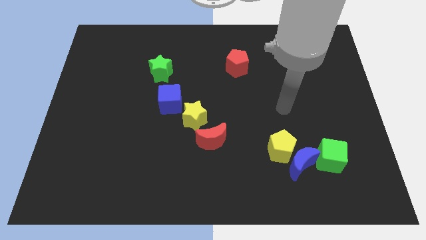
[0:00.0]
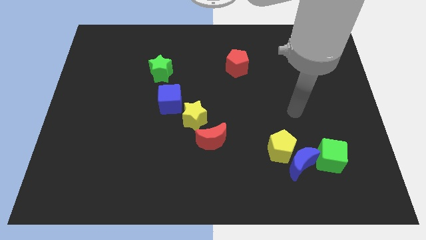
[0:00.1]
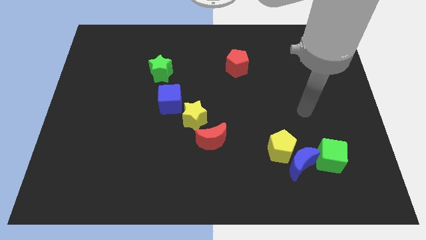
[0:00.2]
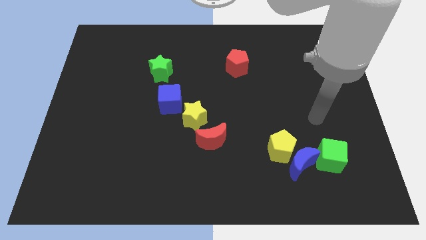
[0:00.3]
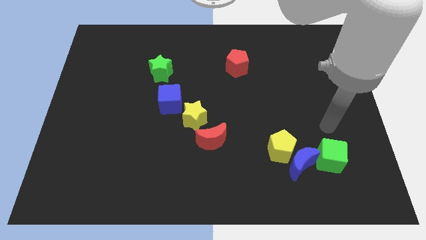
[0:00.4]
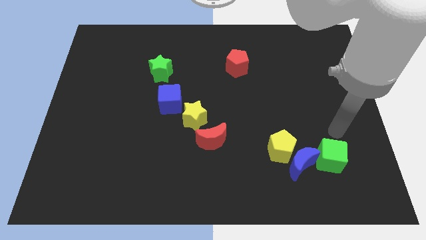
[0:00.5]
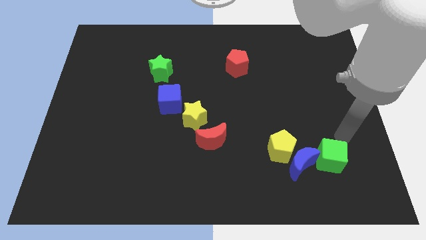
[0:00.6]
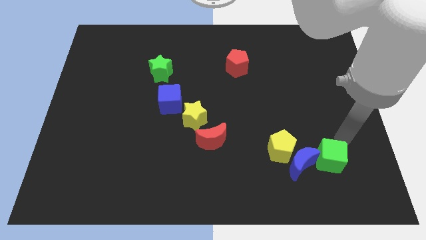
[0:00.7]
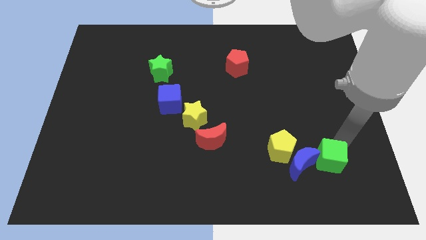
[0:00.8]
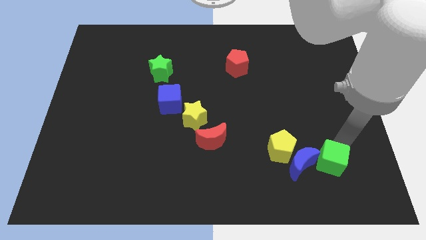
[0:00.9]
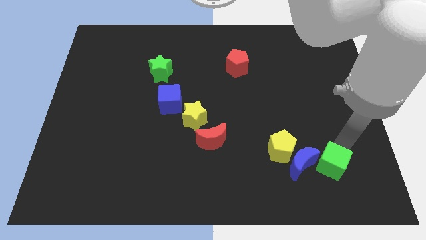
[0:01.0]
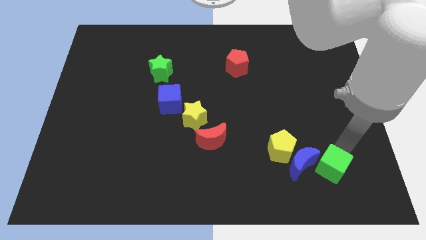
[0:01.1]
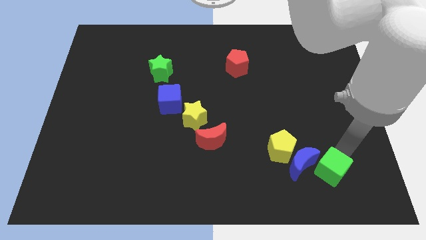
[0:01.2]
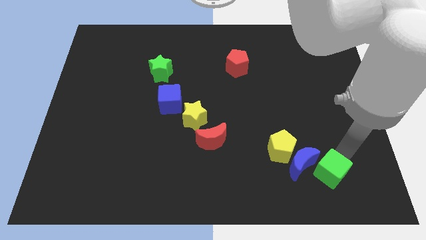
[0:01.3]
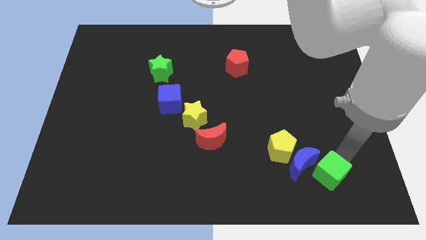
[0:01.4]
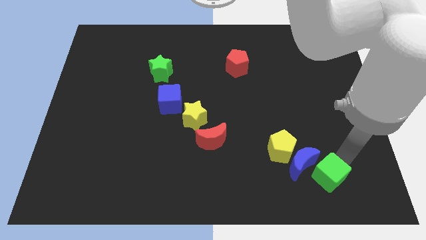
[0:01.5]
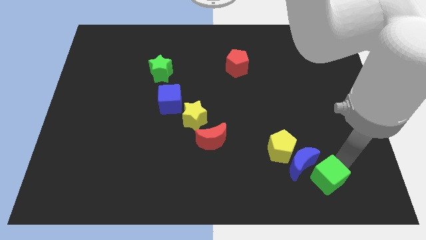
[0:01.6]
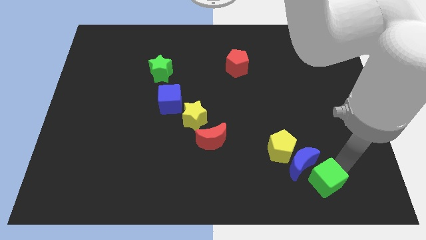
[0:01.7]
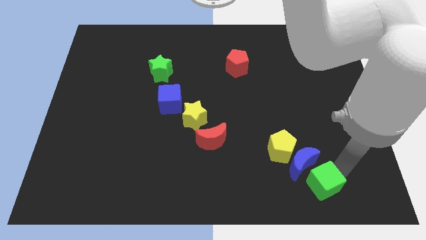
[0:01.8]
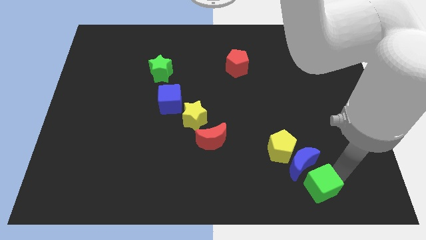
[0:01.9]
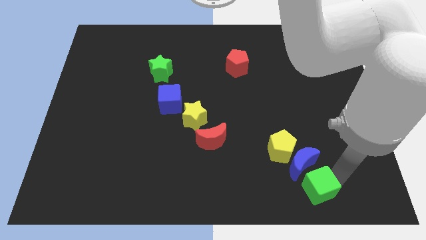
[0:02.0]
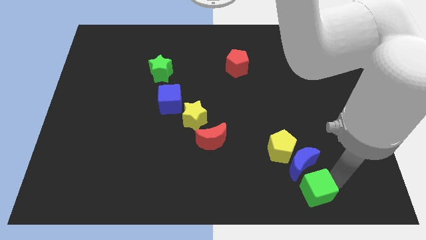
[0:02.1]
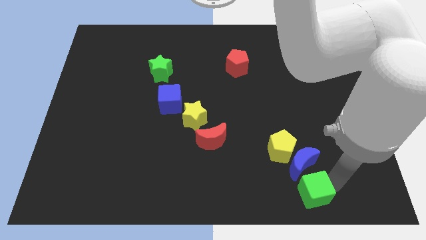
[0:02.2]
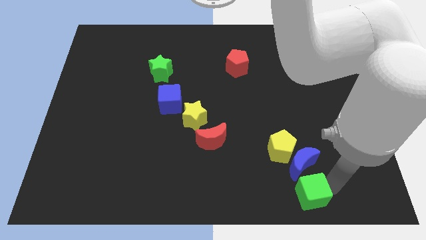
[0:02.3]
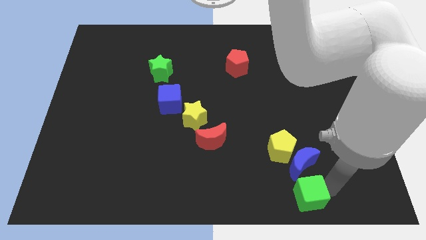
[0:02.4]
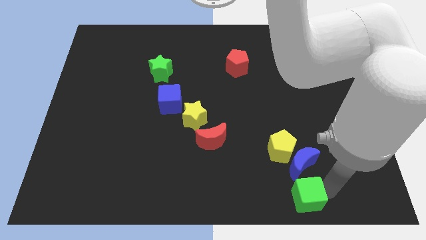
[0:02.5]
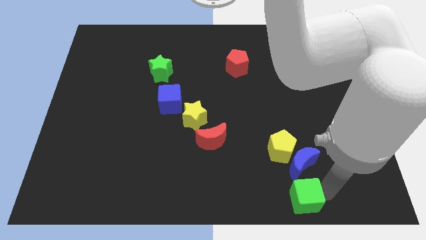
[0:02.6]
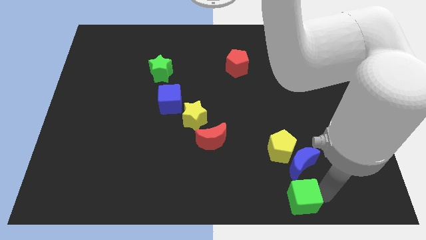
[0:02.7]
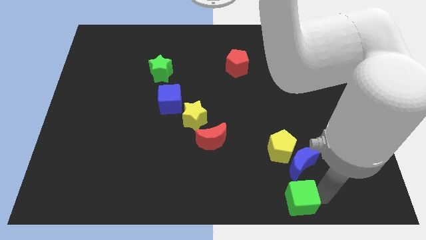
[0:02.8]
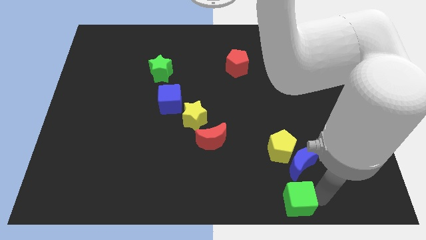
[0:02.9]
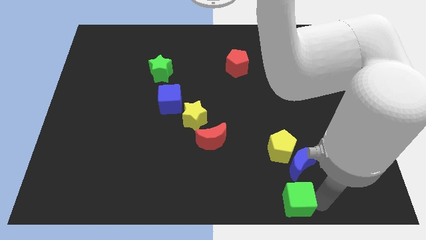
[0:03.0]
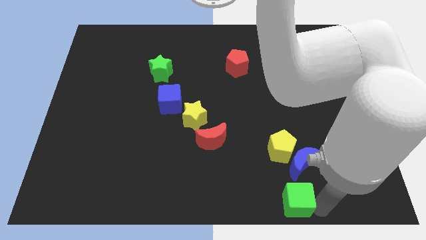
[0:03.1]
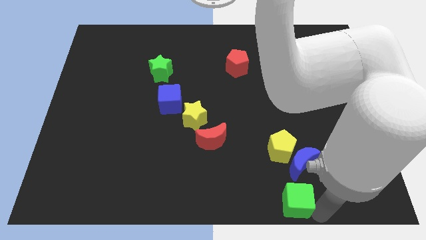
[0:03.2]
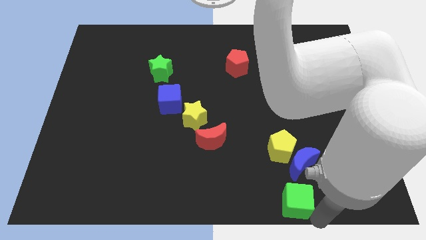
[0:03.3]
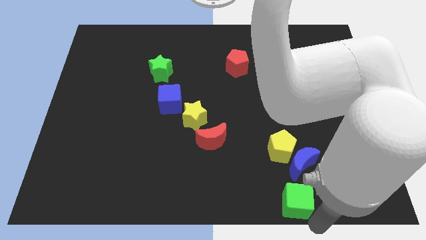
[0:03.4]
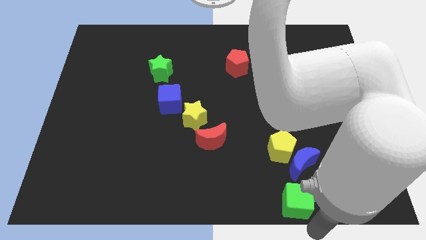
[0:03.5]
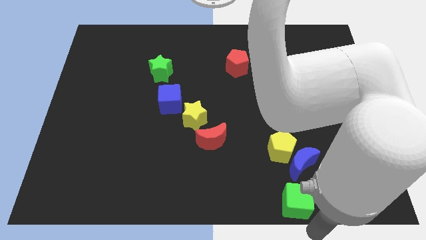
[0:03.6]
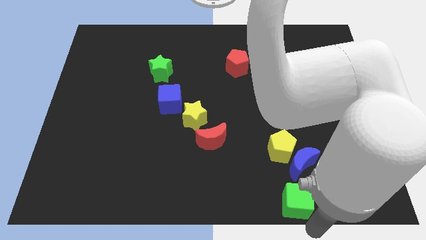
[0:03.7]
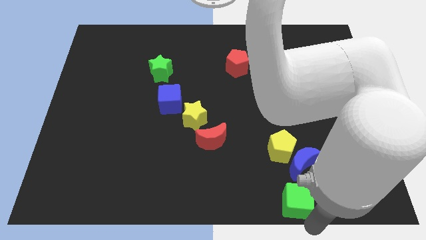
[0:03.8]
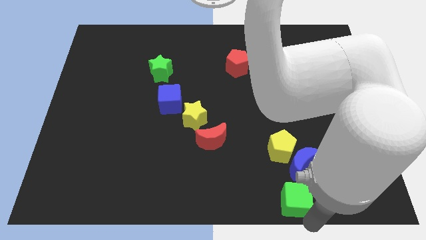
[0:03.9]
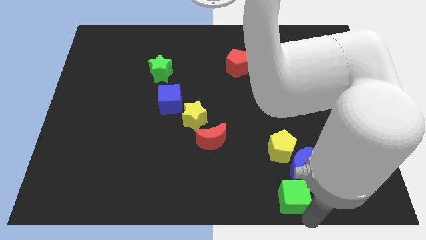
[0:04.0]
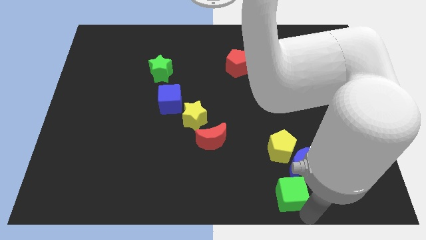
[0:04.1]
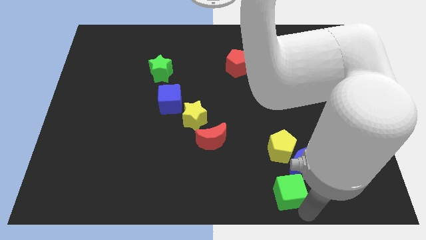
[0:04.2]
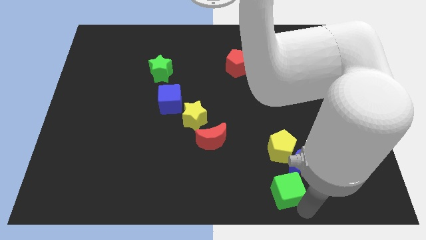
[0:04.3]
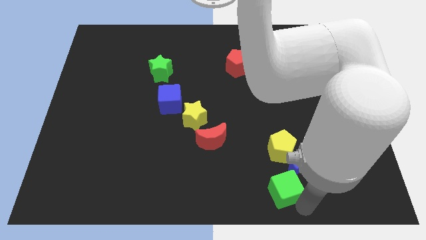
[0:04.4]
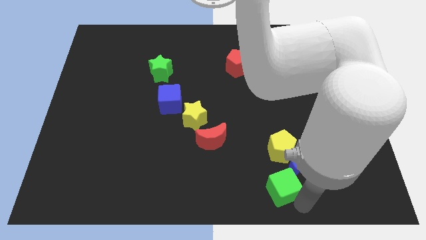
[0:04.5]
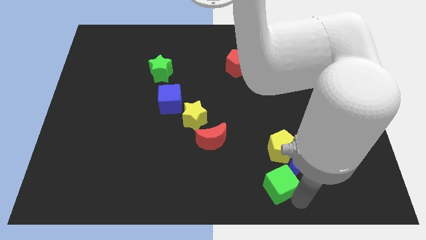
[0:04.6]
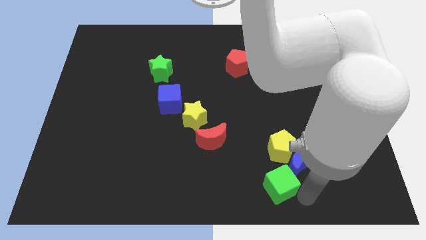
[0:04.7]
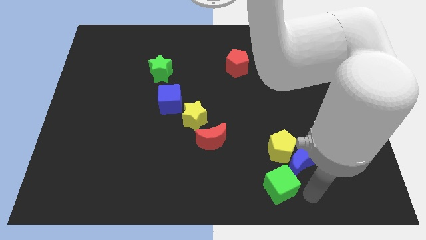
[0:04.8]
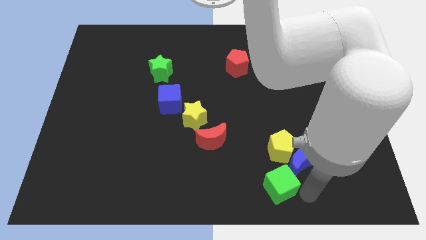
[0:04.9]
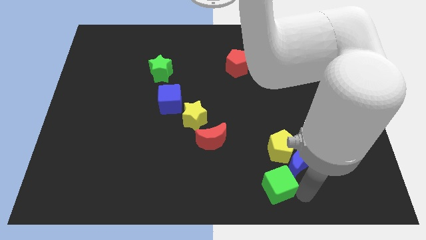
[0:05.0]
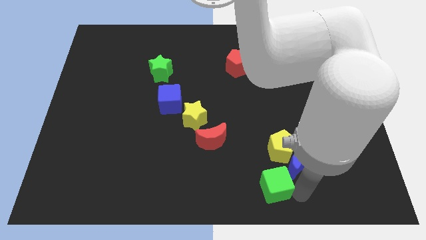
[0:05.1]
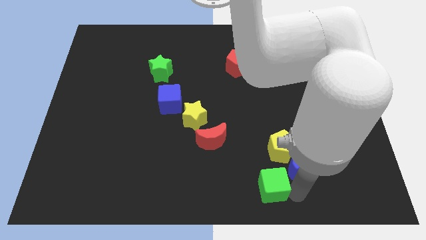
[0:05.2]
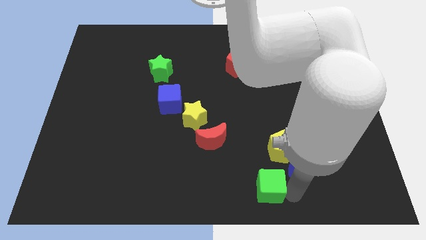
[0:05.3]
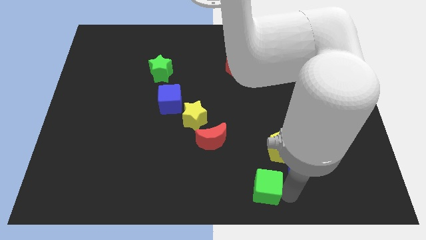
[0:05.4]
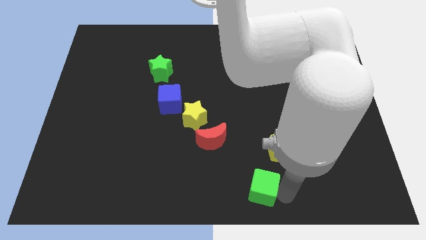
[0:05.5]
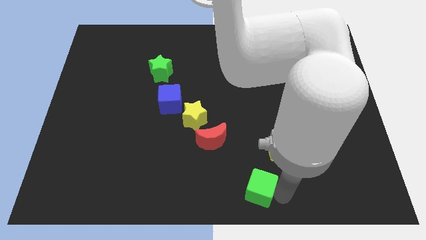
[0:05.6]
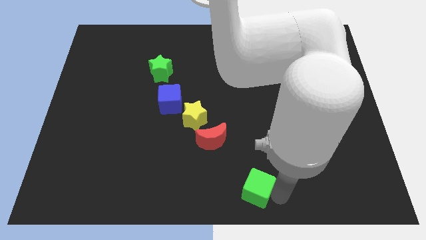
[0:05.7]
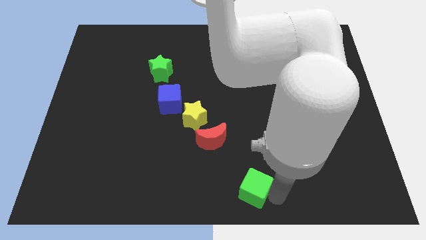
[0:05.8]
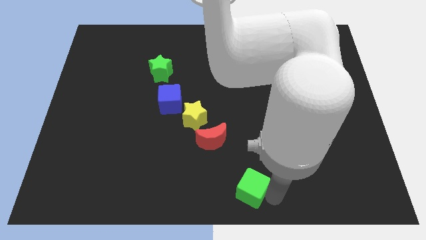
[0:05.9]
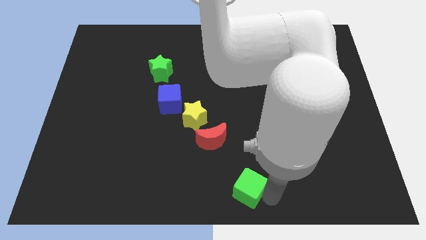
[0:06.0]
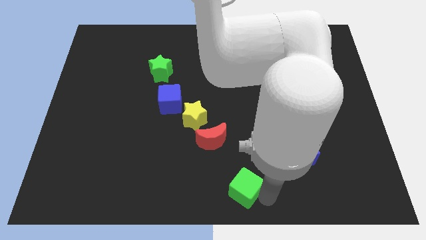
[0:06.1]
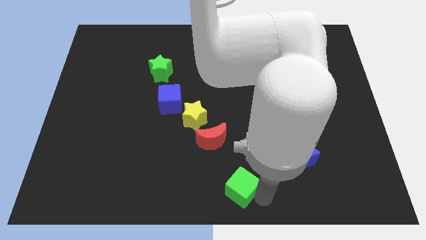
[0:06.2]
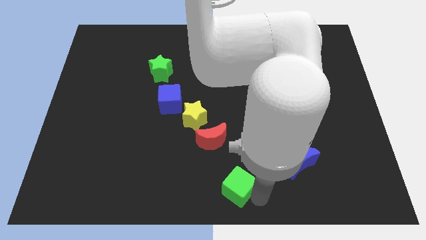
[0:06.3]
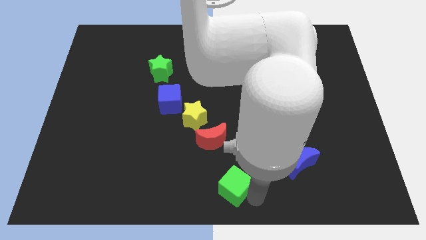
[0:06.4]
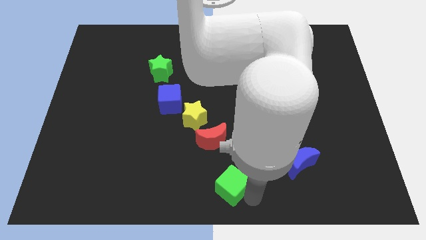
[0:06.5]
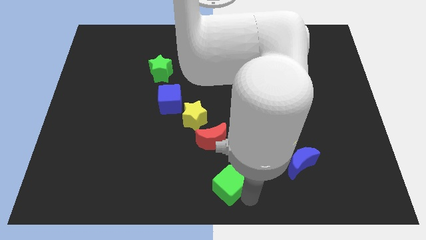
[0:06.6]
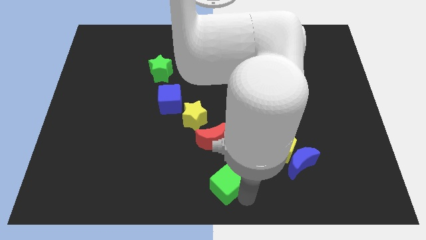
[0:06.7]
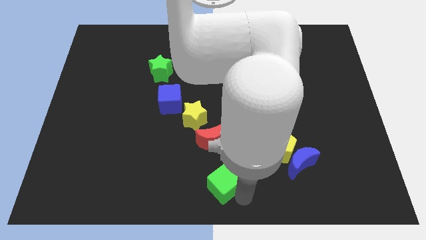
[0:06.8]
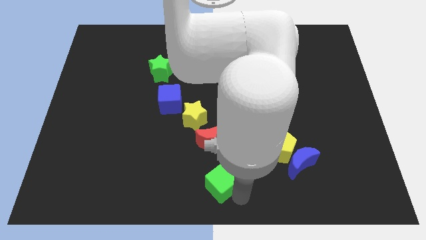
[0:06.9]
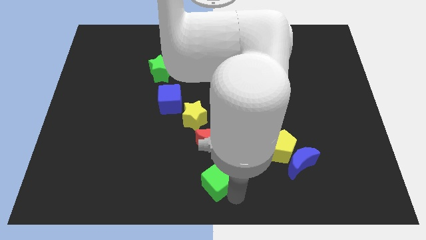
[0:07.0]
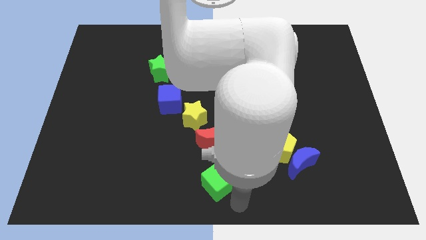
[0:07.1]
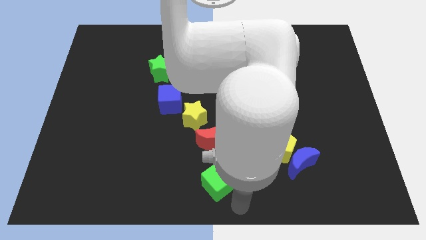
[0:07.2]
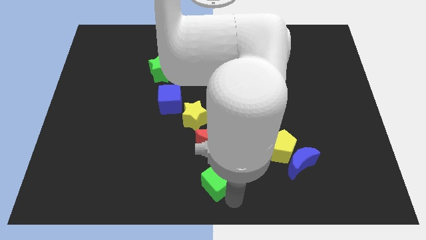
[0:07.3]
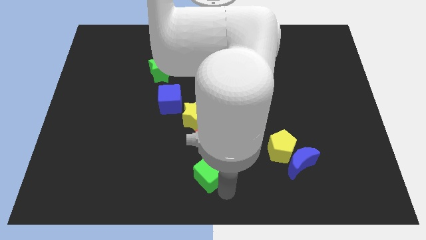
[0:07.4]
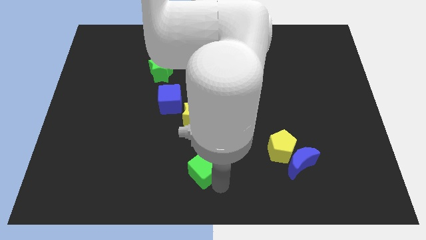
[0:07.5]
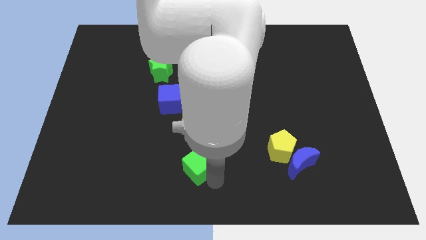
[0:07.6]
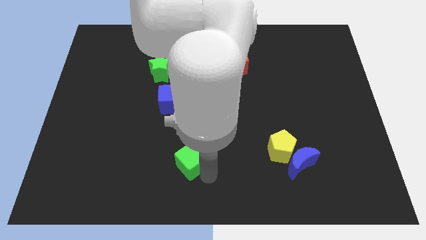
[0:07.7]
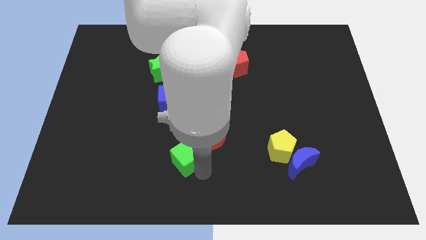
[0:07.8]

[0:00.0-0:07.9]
push the green cube just left of the red moon
